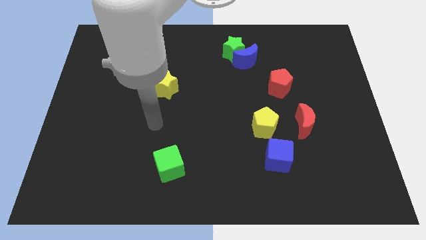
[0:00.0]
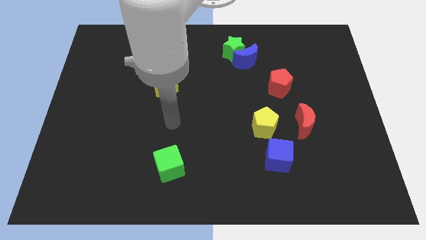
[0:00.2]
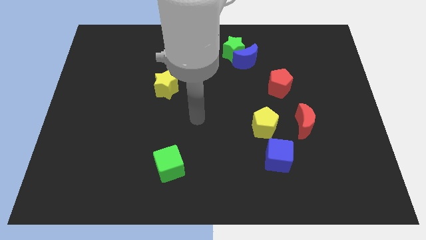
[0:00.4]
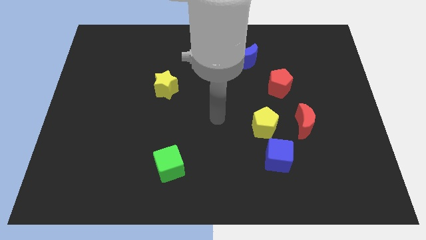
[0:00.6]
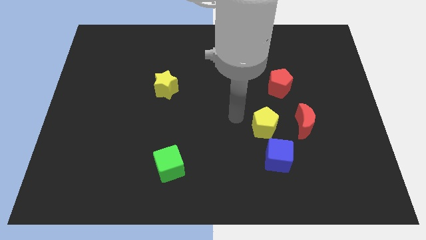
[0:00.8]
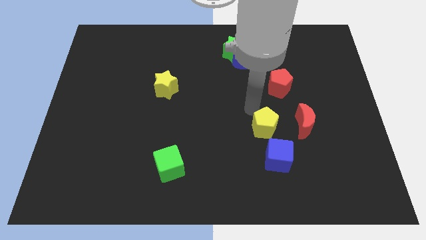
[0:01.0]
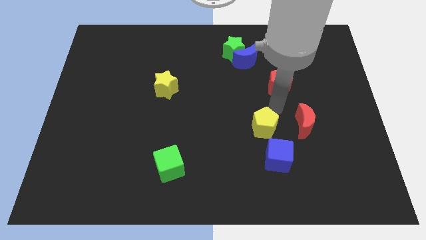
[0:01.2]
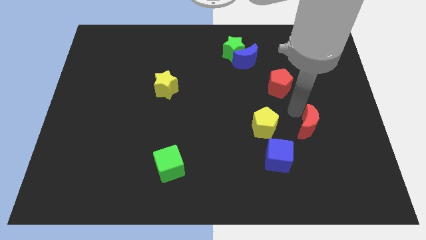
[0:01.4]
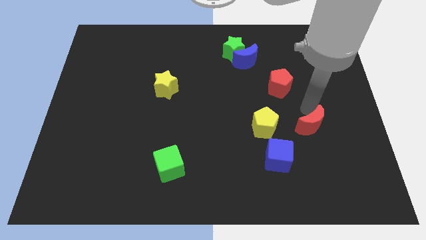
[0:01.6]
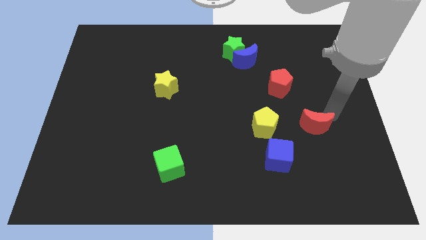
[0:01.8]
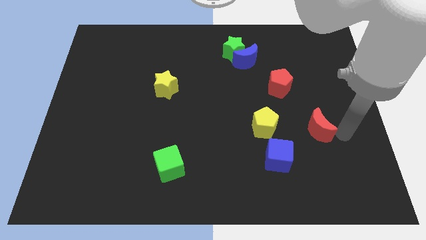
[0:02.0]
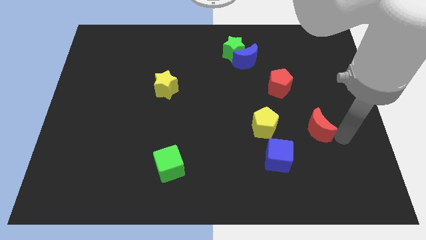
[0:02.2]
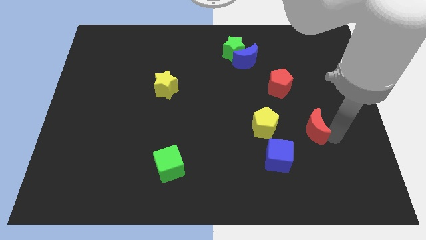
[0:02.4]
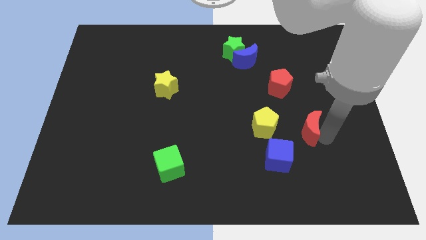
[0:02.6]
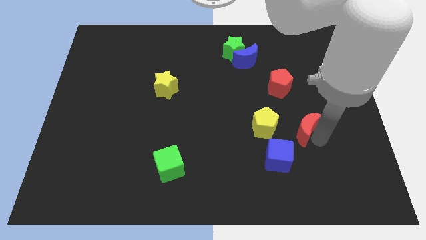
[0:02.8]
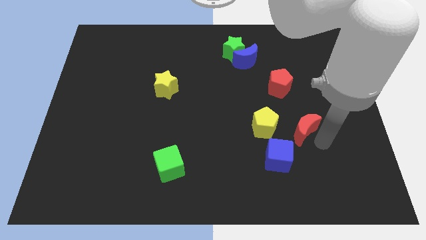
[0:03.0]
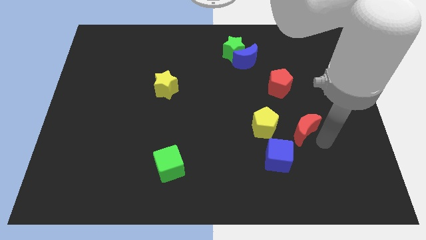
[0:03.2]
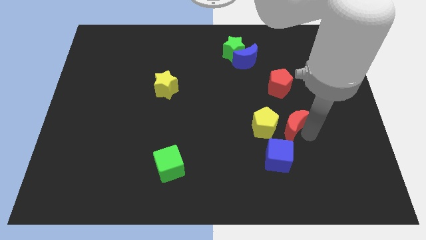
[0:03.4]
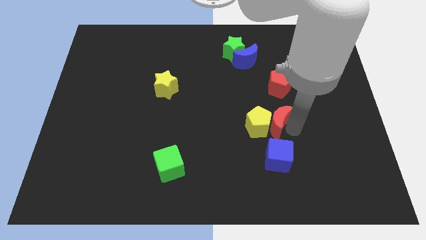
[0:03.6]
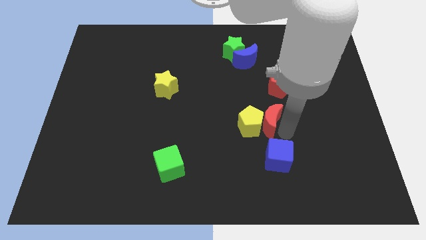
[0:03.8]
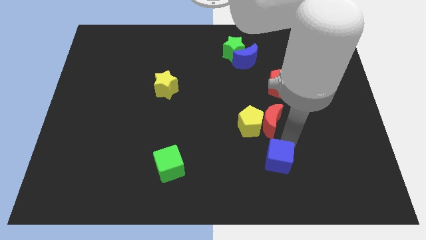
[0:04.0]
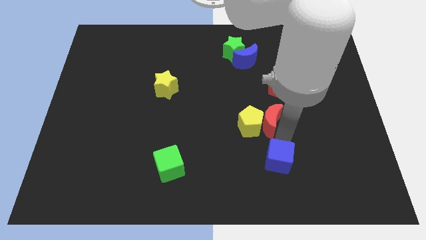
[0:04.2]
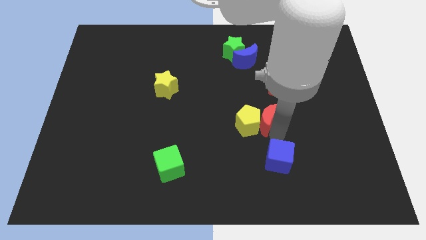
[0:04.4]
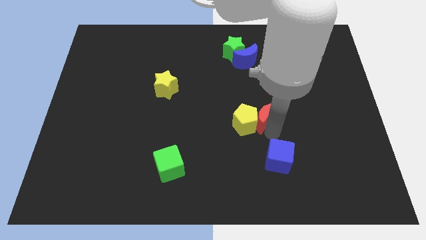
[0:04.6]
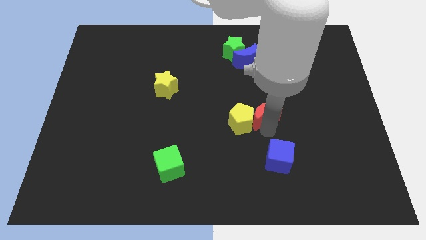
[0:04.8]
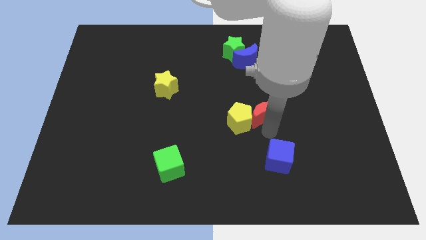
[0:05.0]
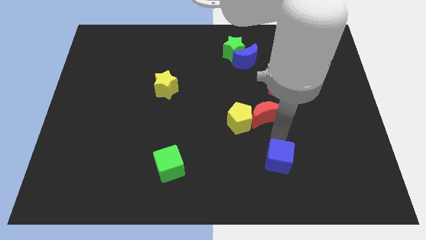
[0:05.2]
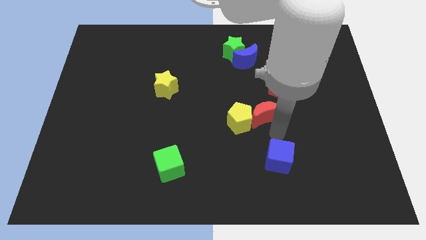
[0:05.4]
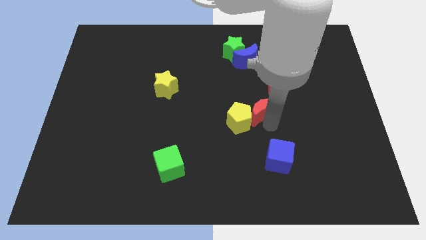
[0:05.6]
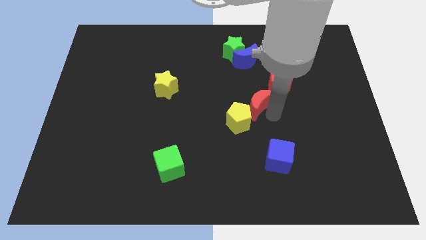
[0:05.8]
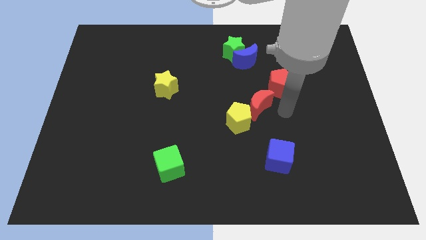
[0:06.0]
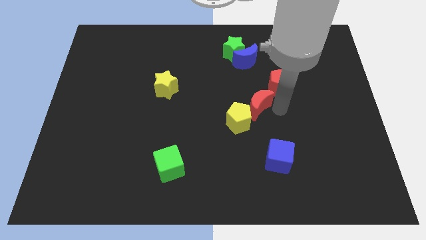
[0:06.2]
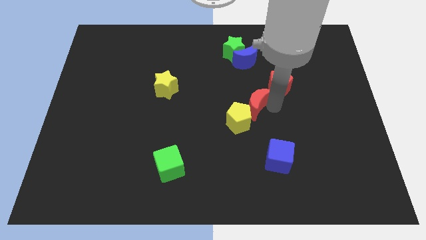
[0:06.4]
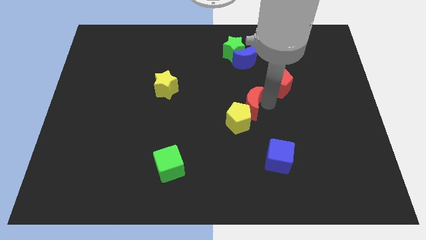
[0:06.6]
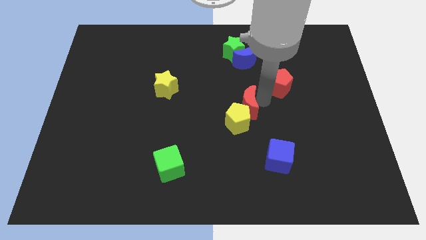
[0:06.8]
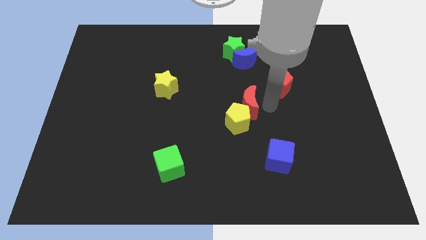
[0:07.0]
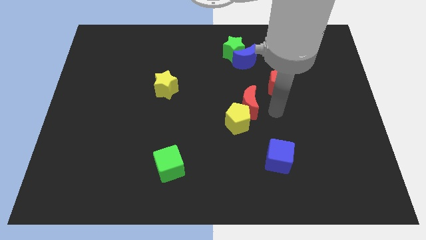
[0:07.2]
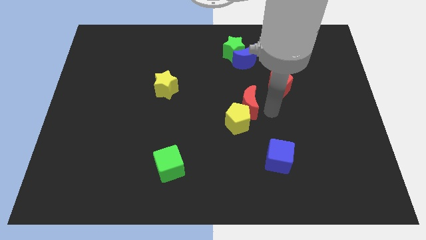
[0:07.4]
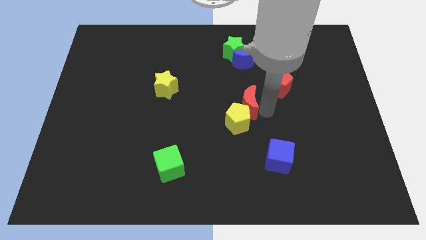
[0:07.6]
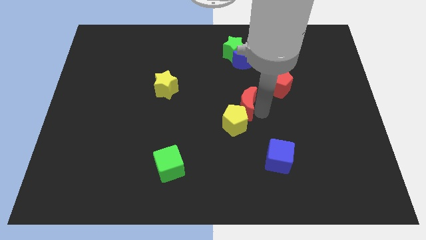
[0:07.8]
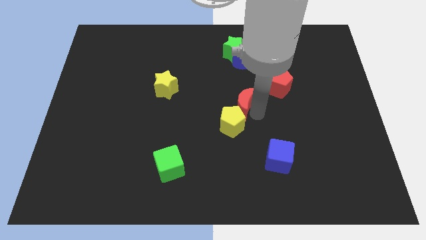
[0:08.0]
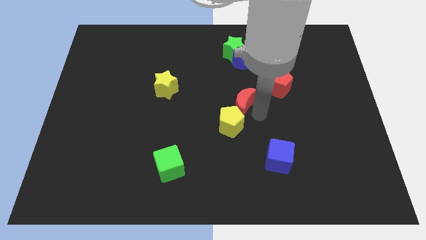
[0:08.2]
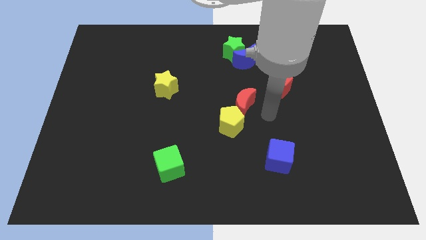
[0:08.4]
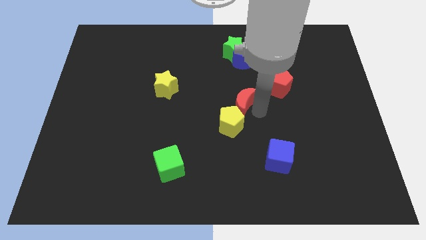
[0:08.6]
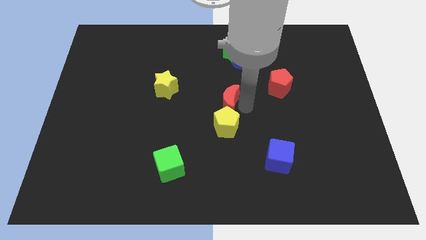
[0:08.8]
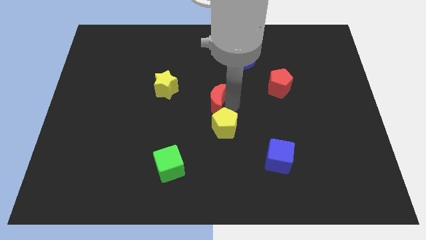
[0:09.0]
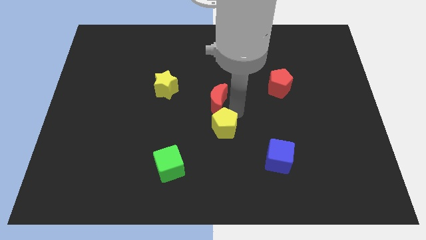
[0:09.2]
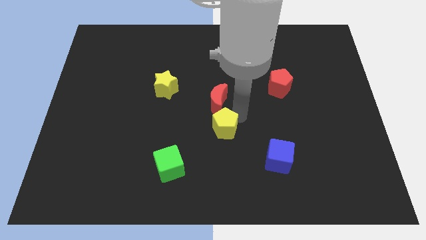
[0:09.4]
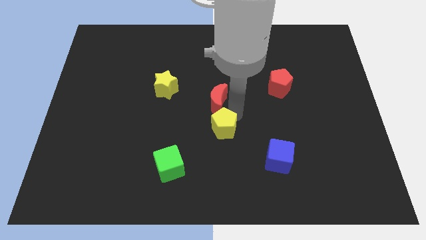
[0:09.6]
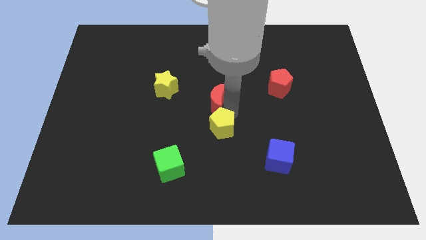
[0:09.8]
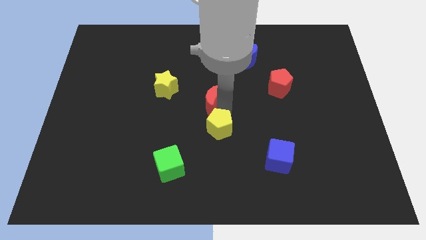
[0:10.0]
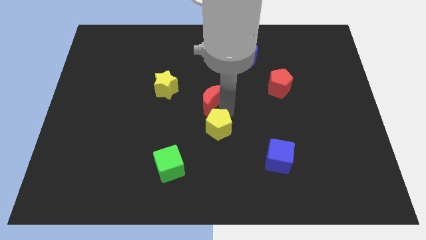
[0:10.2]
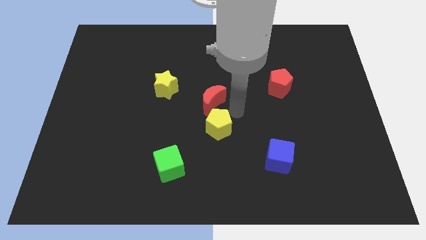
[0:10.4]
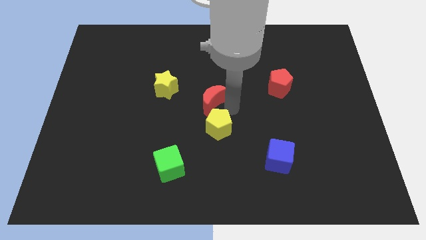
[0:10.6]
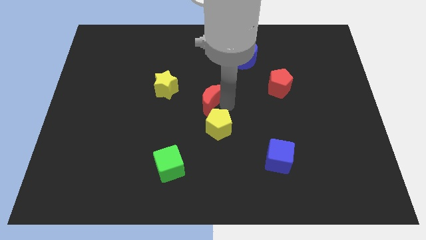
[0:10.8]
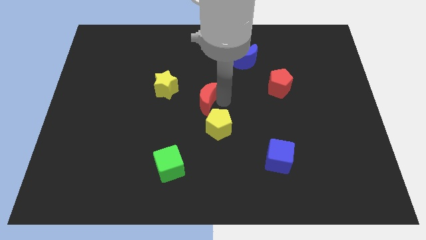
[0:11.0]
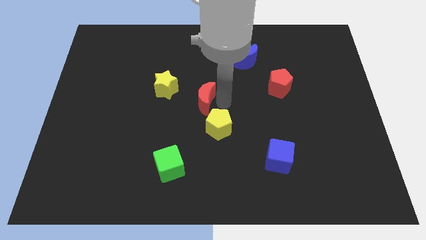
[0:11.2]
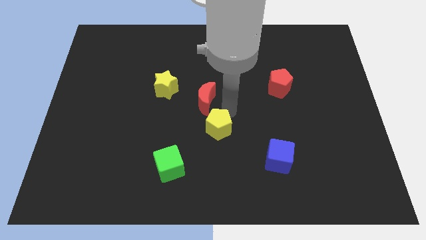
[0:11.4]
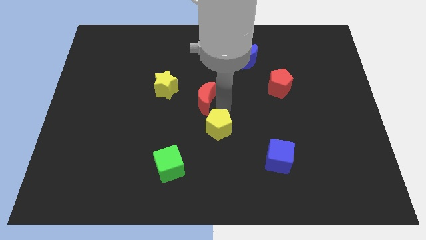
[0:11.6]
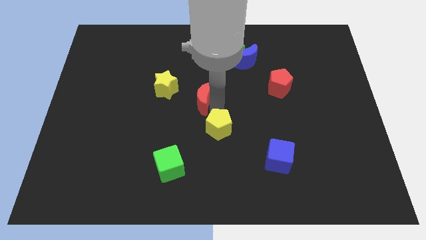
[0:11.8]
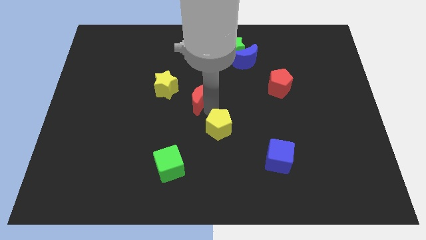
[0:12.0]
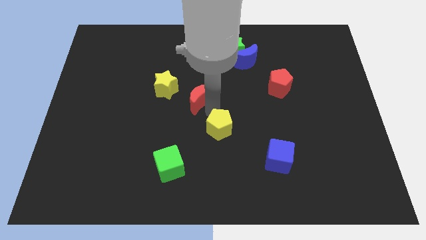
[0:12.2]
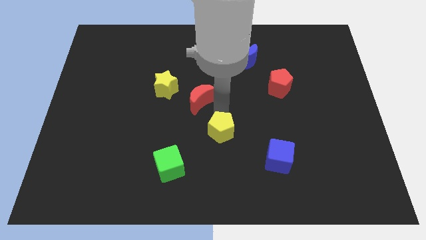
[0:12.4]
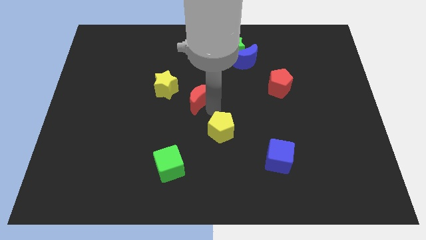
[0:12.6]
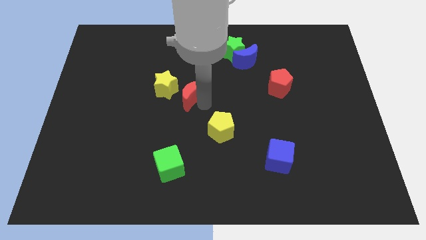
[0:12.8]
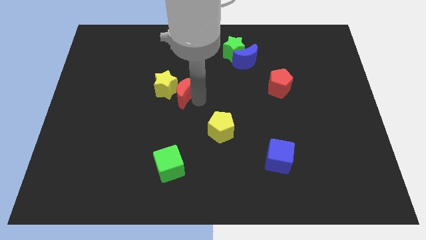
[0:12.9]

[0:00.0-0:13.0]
push the red moon close to the yellow star
